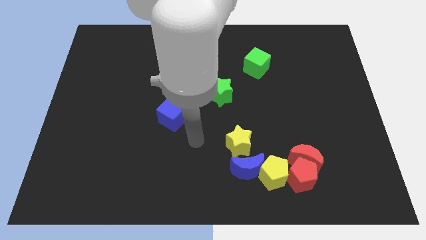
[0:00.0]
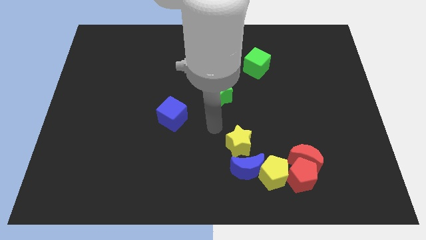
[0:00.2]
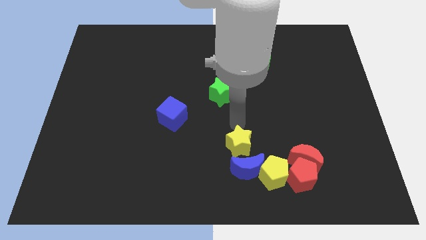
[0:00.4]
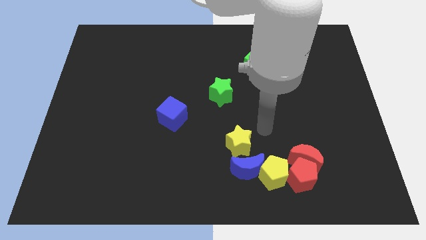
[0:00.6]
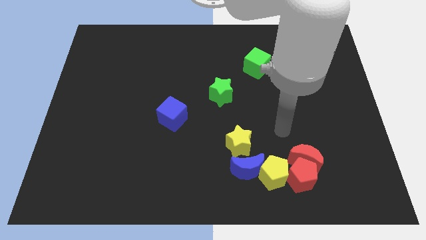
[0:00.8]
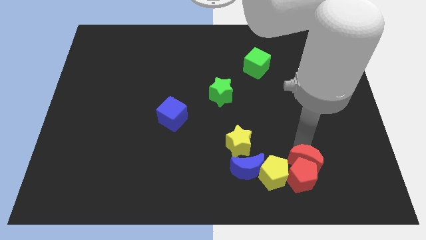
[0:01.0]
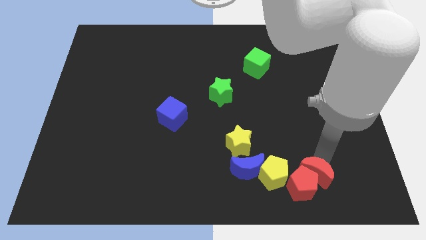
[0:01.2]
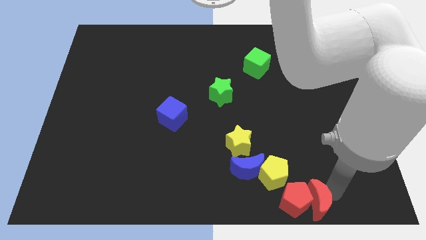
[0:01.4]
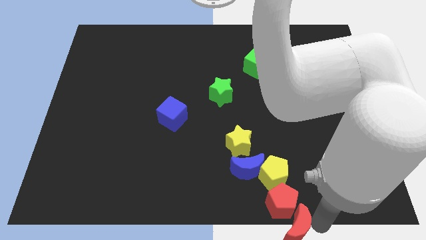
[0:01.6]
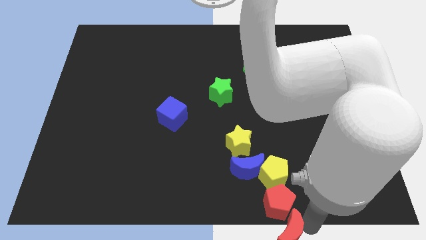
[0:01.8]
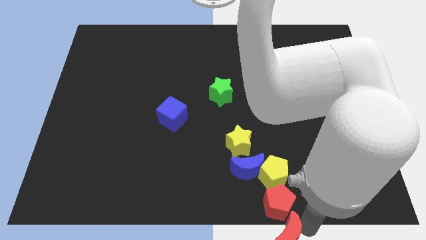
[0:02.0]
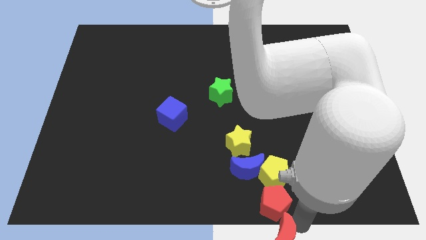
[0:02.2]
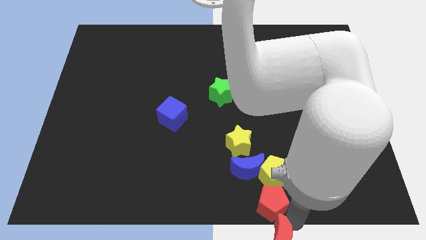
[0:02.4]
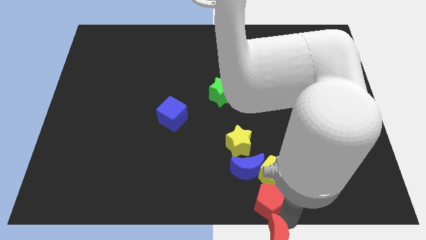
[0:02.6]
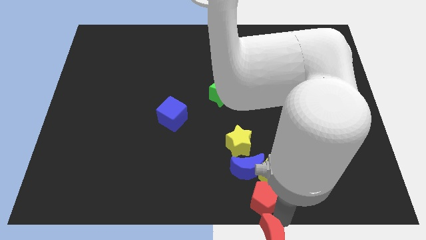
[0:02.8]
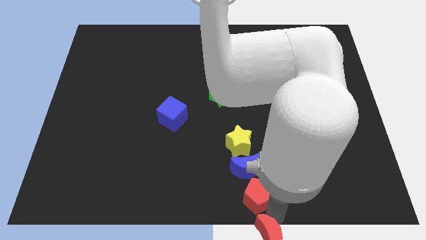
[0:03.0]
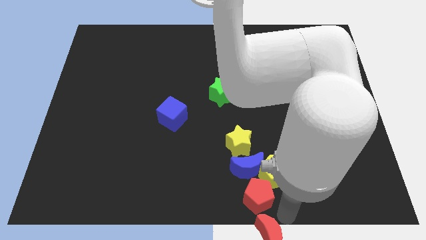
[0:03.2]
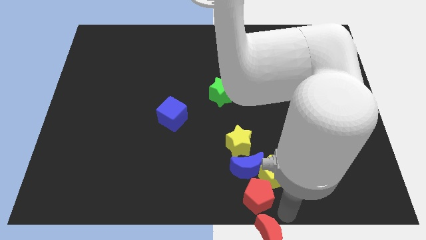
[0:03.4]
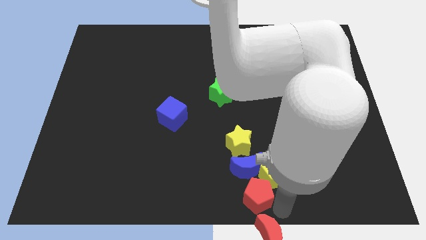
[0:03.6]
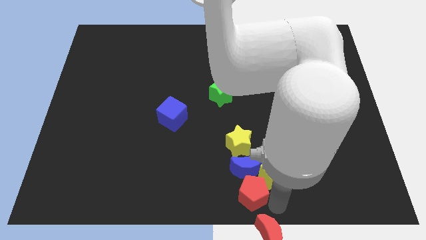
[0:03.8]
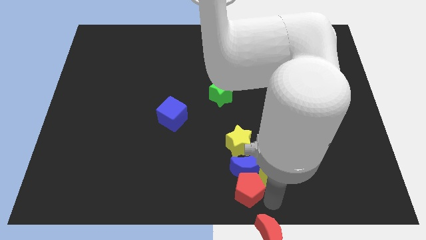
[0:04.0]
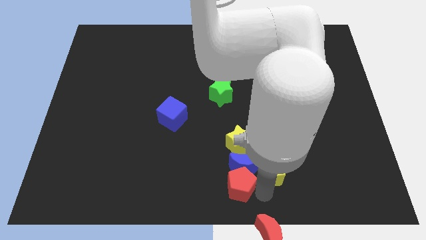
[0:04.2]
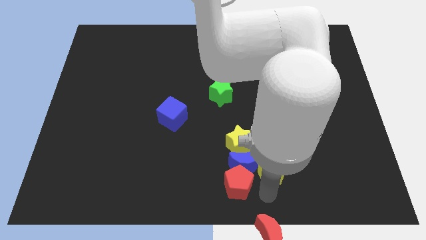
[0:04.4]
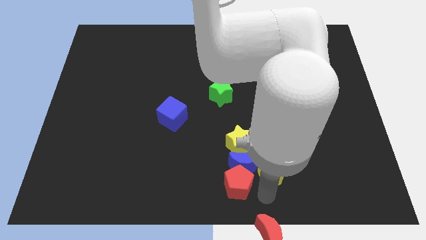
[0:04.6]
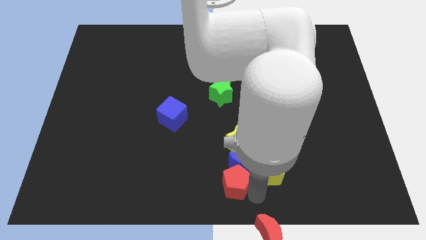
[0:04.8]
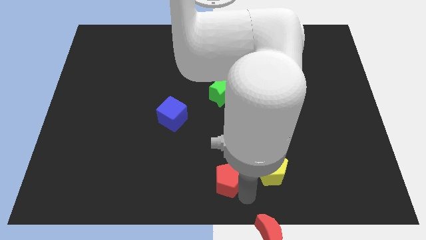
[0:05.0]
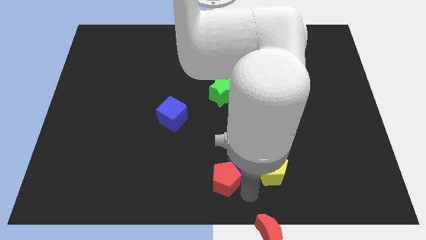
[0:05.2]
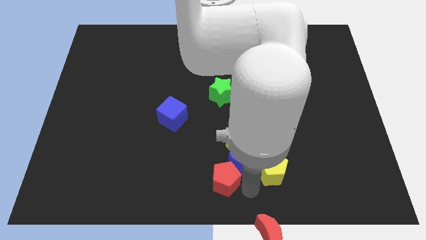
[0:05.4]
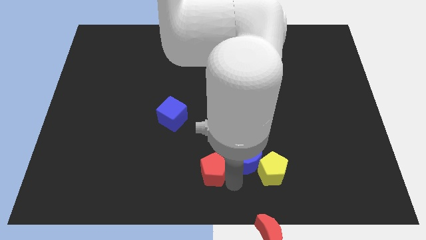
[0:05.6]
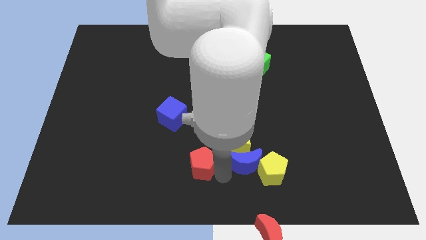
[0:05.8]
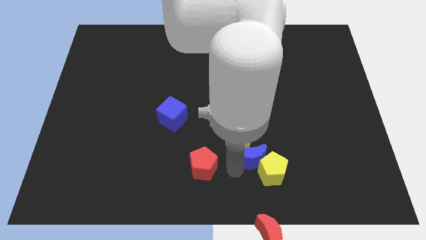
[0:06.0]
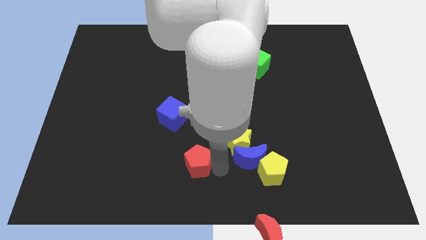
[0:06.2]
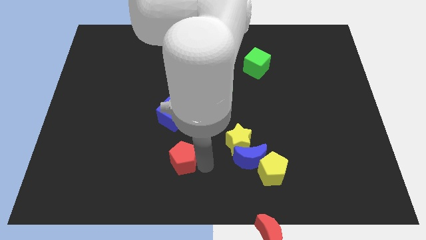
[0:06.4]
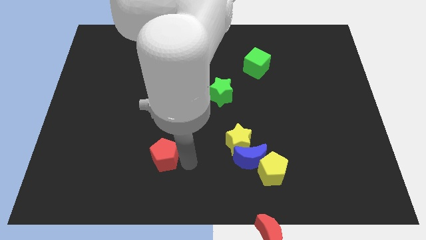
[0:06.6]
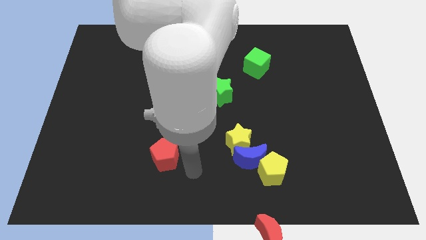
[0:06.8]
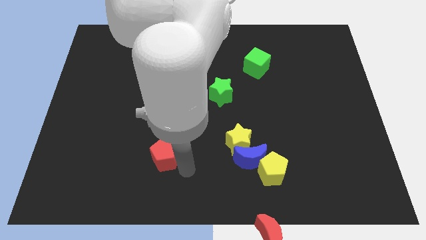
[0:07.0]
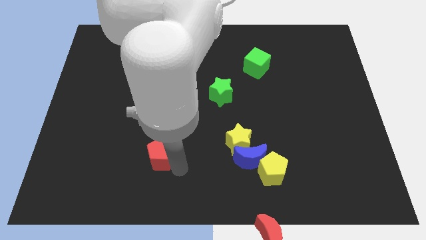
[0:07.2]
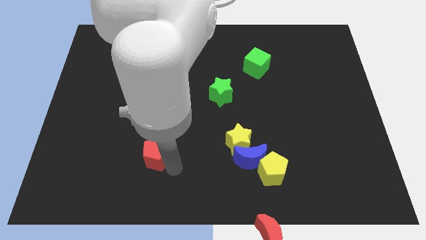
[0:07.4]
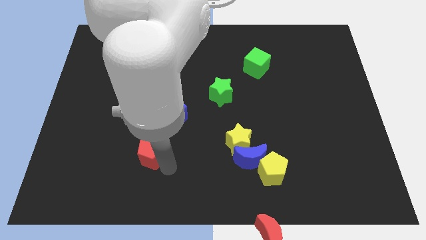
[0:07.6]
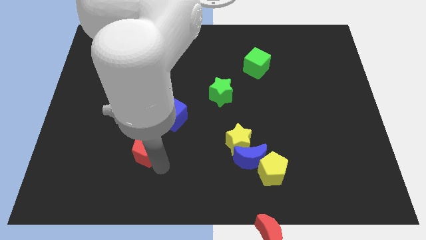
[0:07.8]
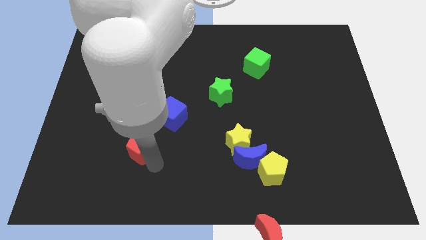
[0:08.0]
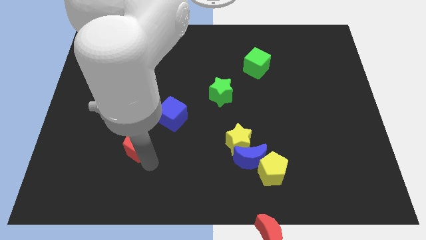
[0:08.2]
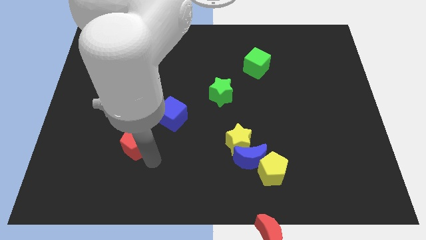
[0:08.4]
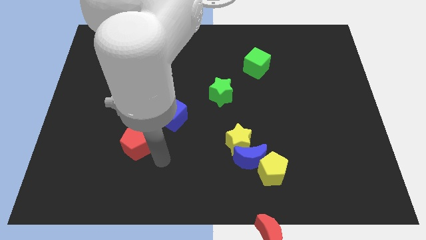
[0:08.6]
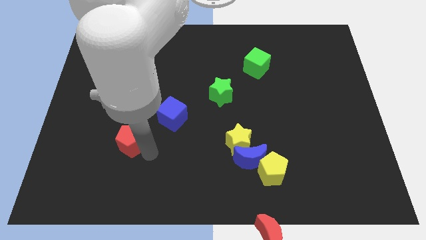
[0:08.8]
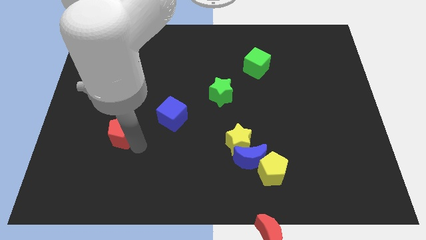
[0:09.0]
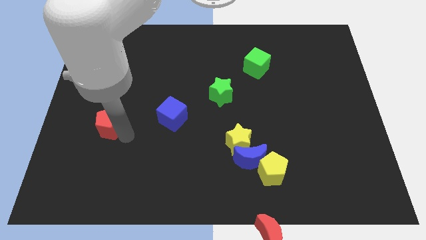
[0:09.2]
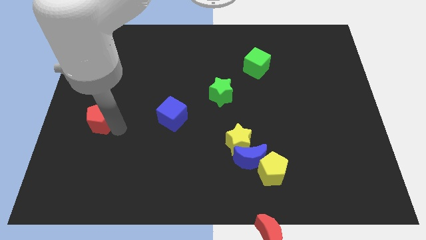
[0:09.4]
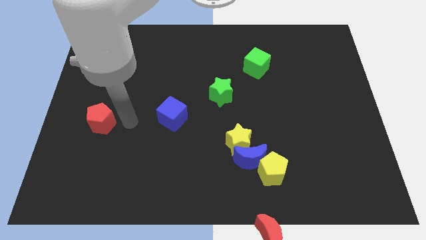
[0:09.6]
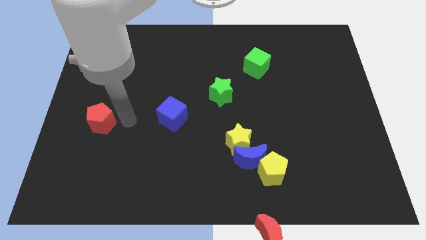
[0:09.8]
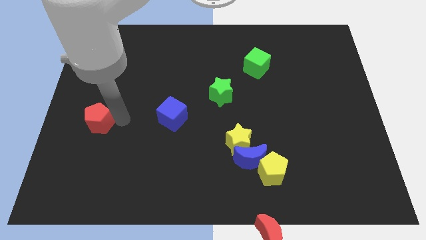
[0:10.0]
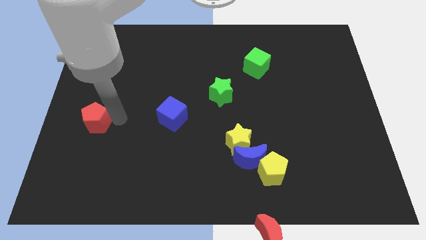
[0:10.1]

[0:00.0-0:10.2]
move the red pentagon to the center left
